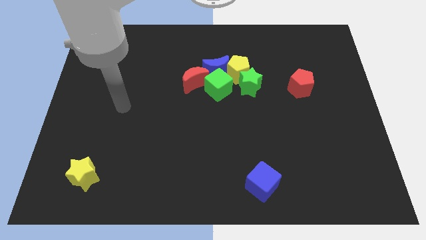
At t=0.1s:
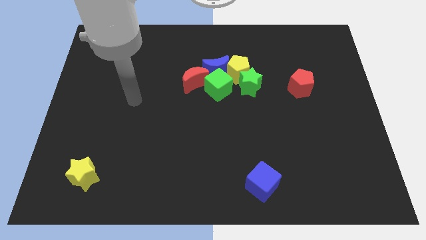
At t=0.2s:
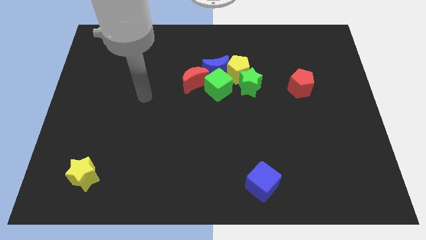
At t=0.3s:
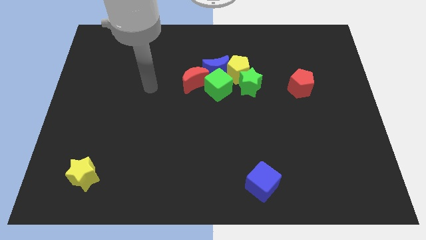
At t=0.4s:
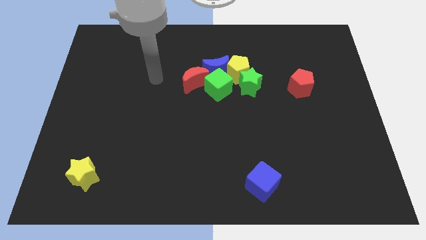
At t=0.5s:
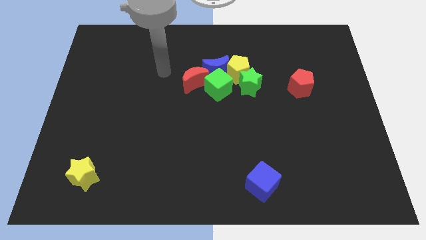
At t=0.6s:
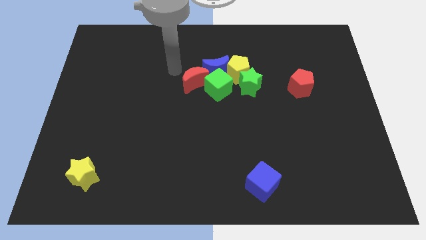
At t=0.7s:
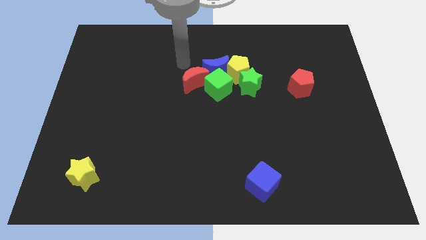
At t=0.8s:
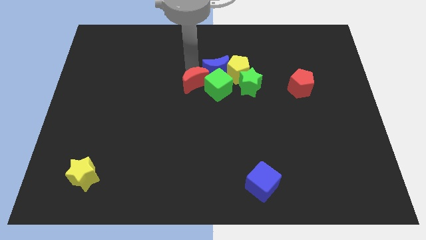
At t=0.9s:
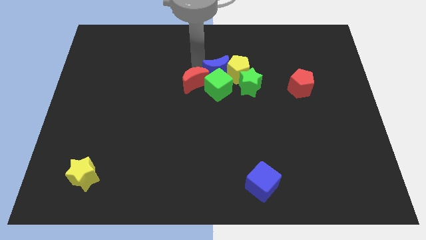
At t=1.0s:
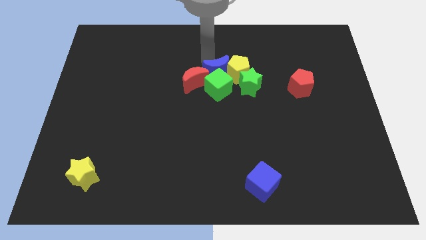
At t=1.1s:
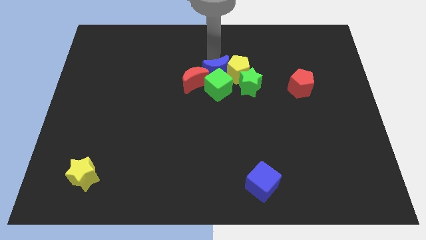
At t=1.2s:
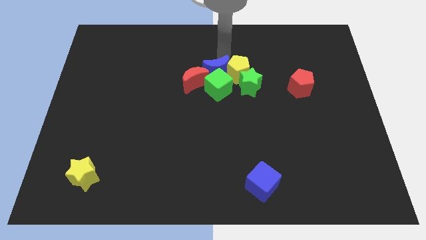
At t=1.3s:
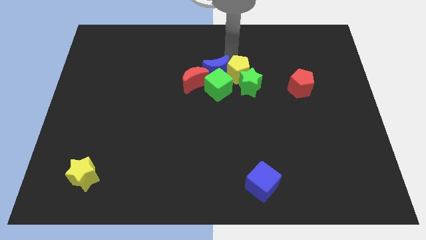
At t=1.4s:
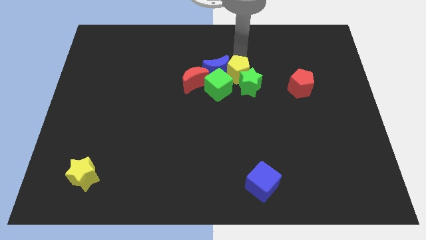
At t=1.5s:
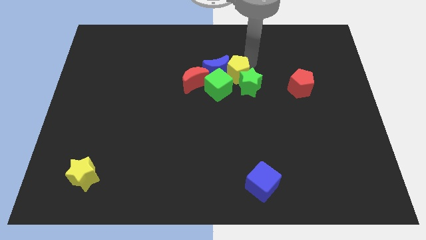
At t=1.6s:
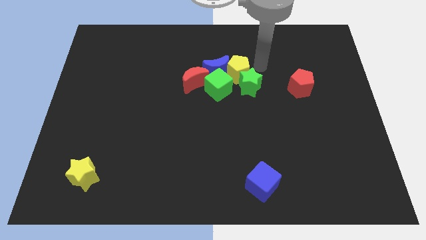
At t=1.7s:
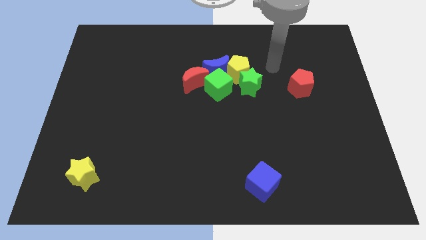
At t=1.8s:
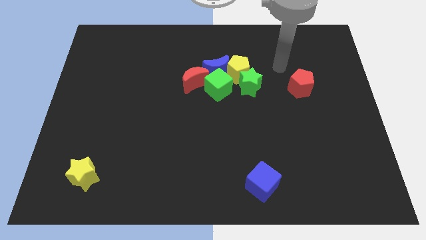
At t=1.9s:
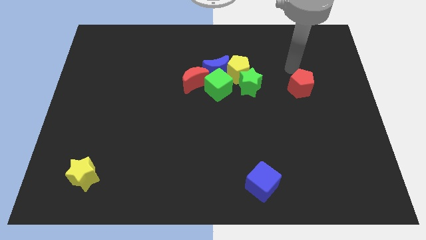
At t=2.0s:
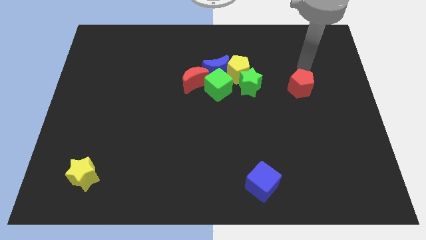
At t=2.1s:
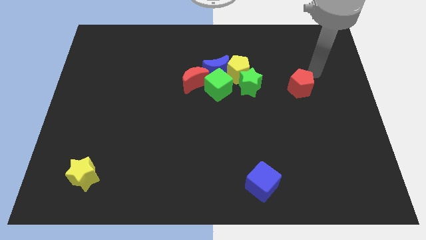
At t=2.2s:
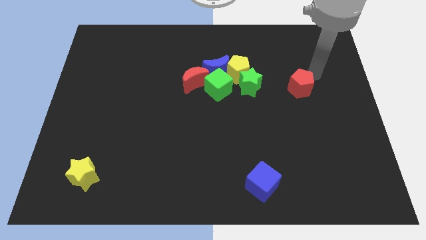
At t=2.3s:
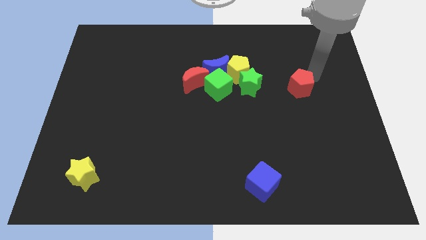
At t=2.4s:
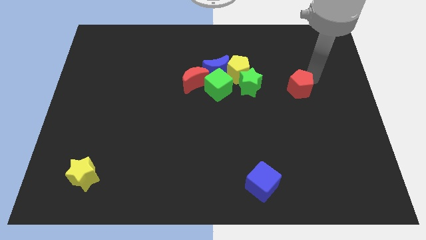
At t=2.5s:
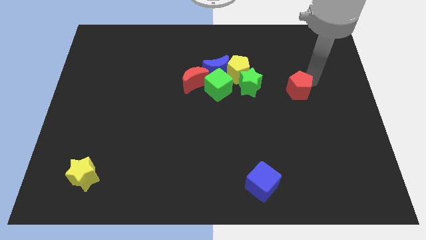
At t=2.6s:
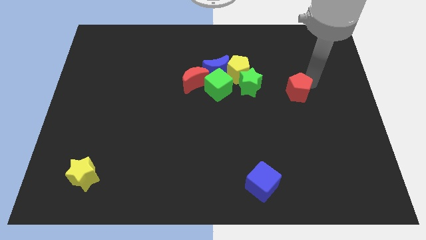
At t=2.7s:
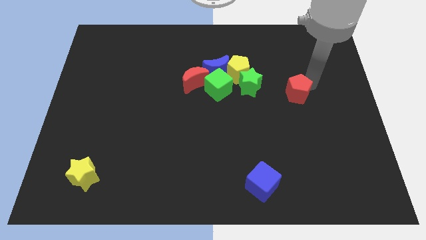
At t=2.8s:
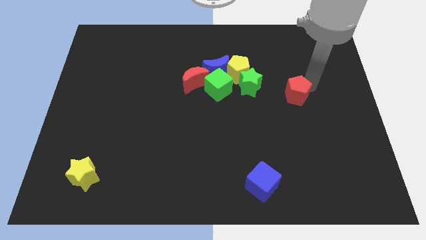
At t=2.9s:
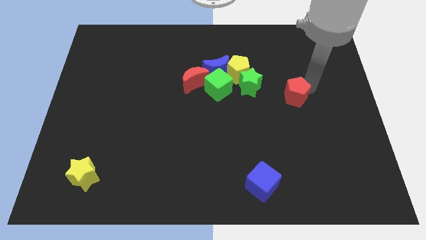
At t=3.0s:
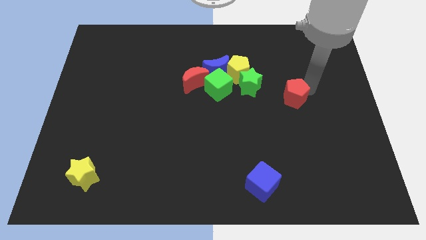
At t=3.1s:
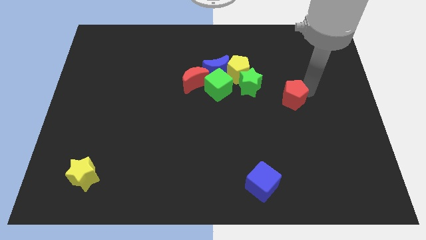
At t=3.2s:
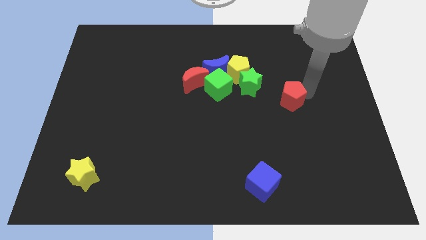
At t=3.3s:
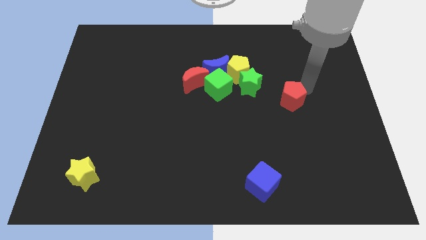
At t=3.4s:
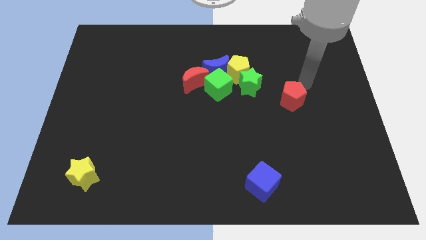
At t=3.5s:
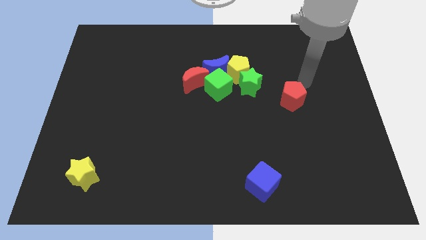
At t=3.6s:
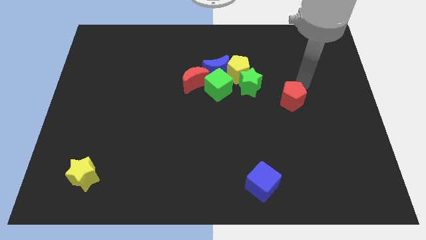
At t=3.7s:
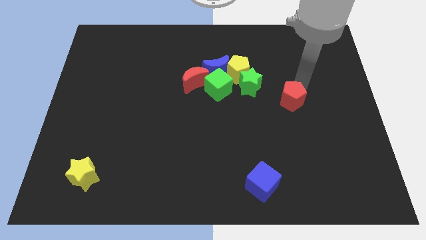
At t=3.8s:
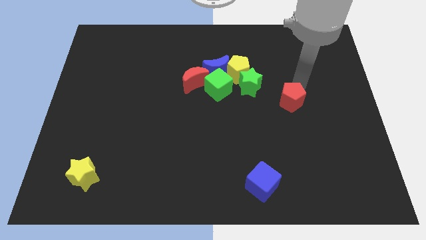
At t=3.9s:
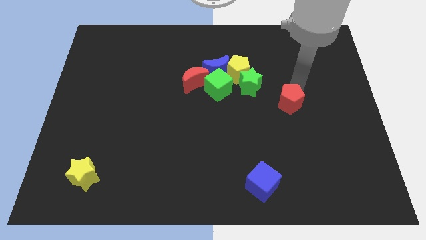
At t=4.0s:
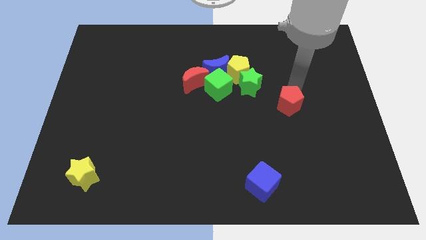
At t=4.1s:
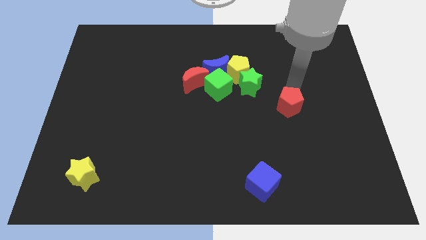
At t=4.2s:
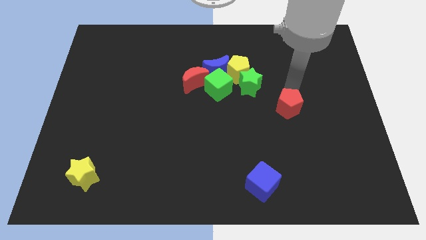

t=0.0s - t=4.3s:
push the red pentagon a little bit downwards and then to the left

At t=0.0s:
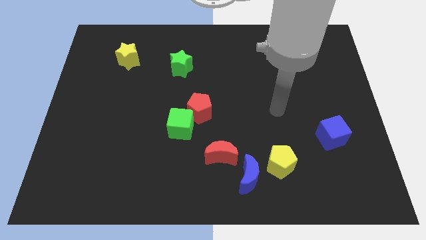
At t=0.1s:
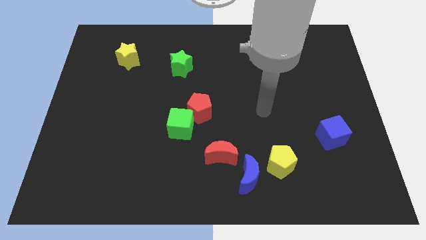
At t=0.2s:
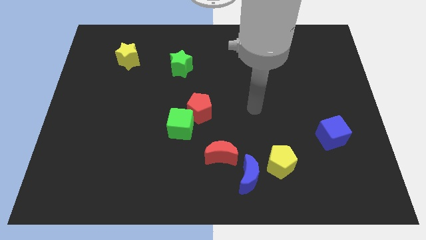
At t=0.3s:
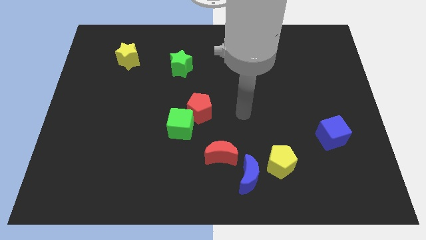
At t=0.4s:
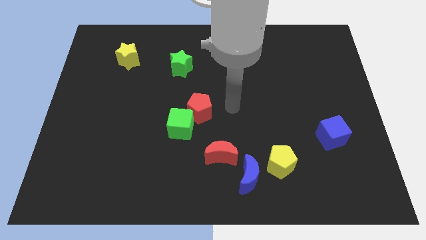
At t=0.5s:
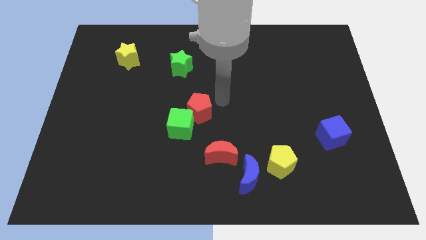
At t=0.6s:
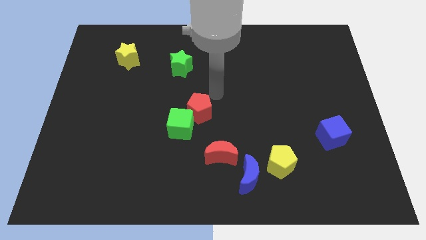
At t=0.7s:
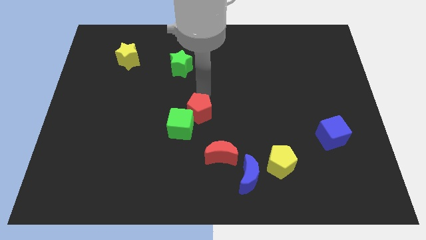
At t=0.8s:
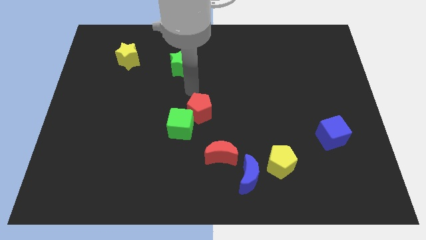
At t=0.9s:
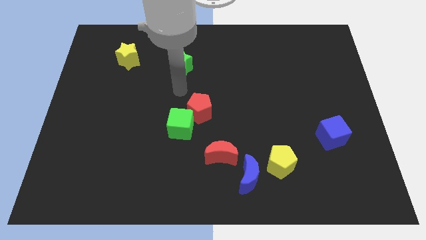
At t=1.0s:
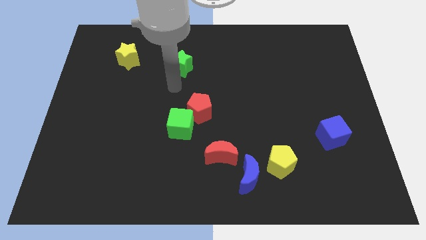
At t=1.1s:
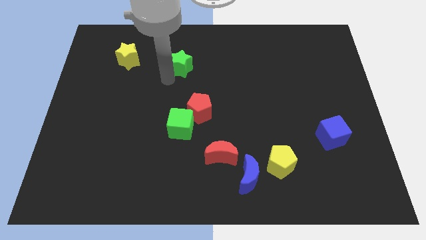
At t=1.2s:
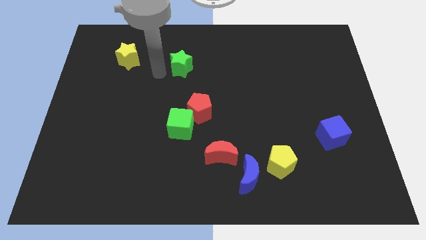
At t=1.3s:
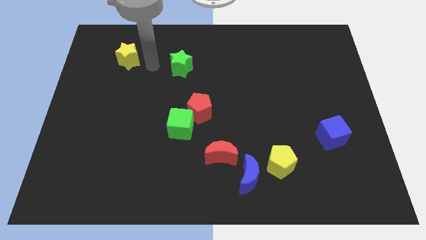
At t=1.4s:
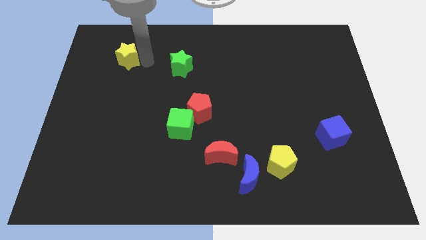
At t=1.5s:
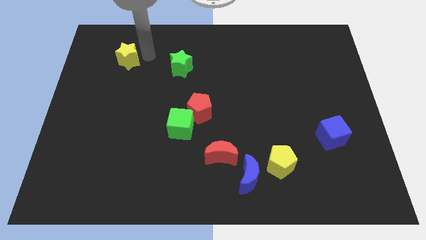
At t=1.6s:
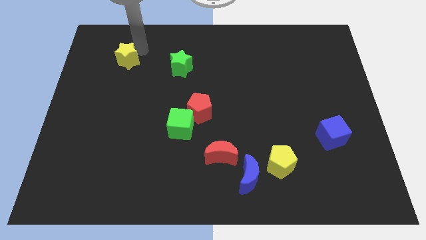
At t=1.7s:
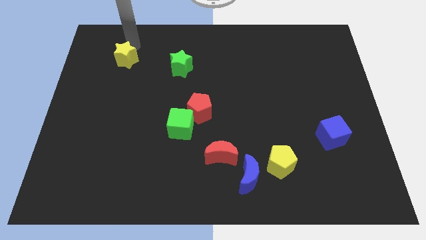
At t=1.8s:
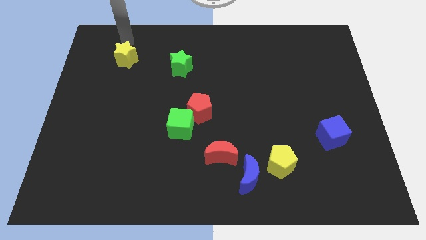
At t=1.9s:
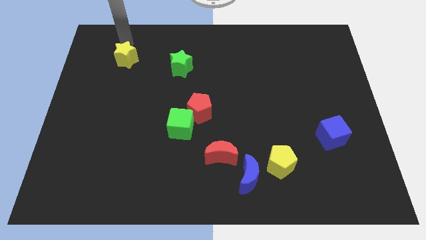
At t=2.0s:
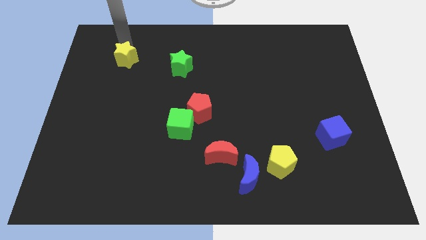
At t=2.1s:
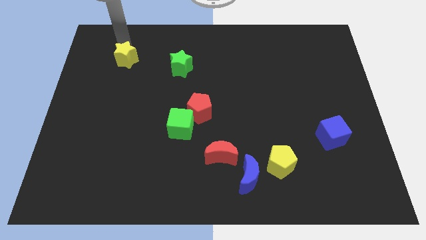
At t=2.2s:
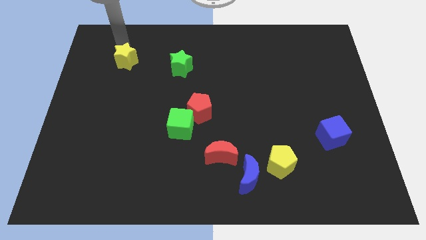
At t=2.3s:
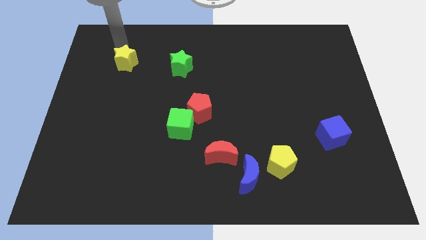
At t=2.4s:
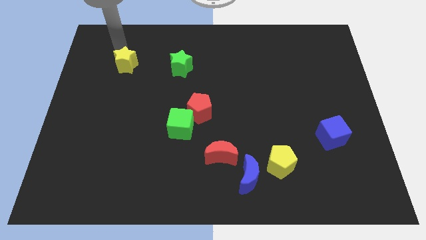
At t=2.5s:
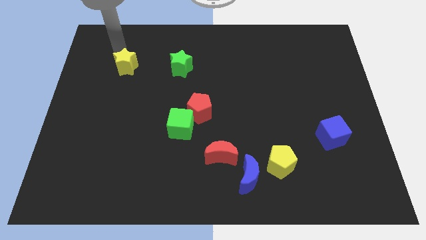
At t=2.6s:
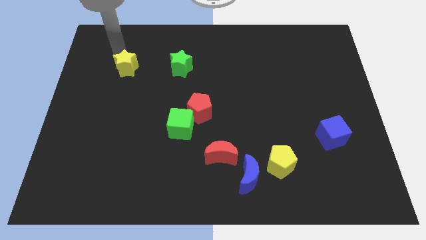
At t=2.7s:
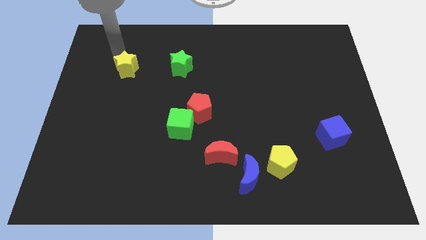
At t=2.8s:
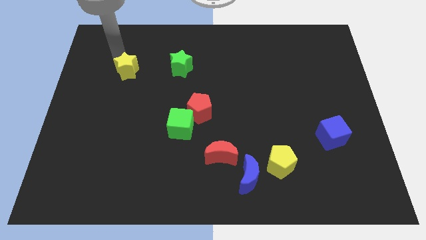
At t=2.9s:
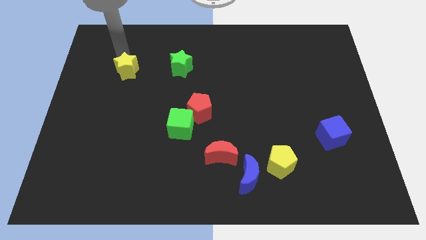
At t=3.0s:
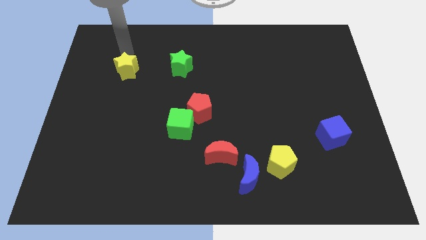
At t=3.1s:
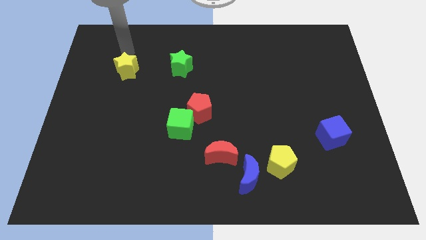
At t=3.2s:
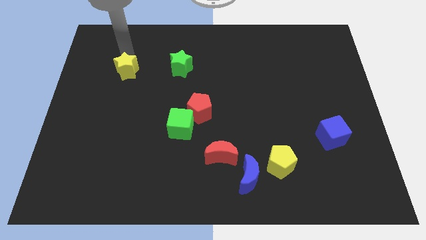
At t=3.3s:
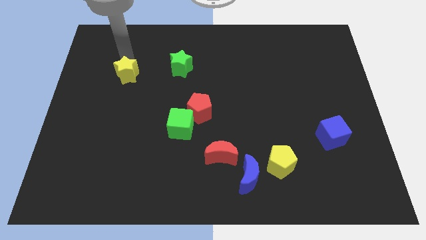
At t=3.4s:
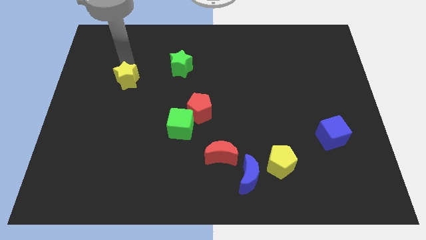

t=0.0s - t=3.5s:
move the yellow star down slightly
